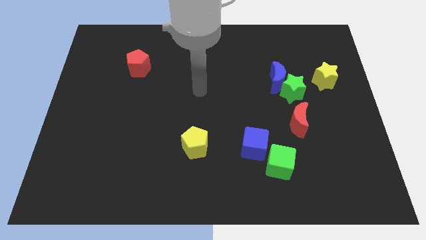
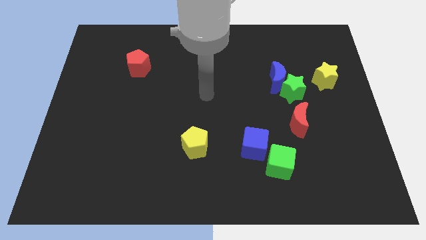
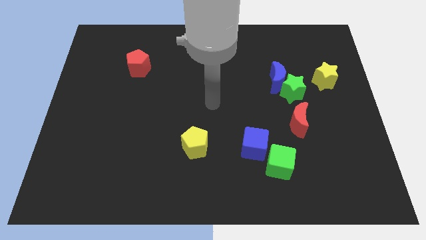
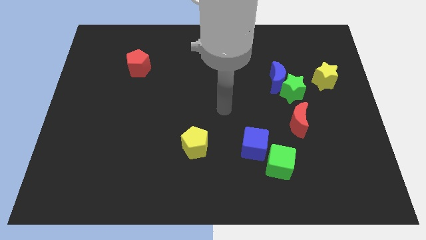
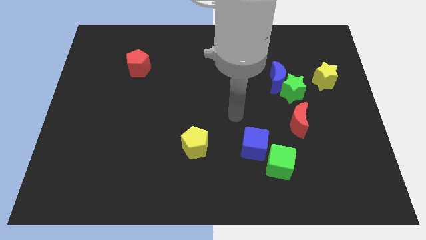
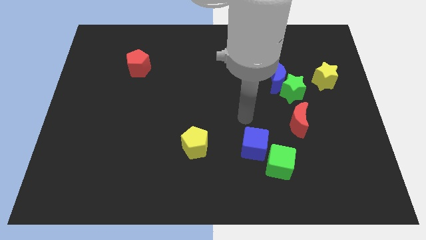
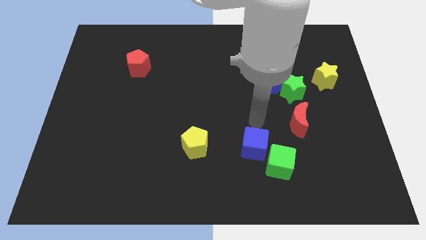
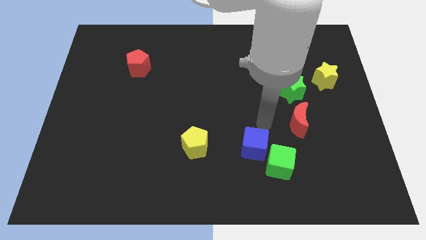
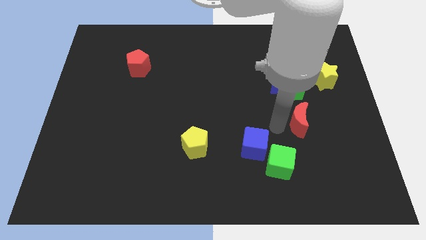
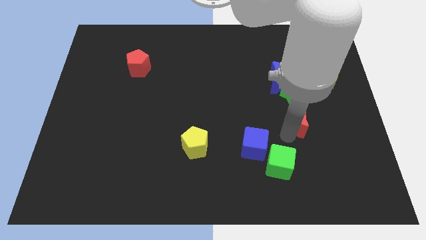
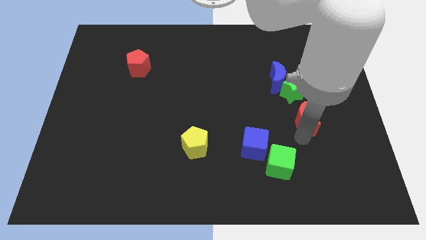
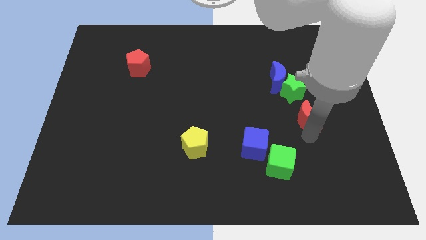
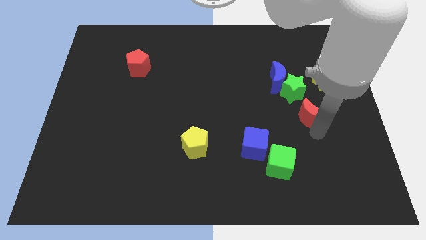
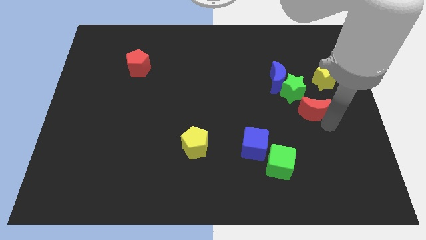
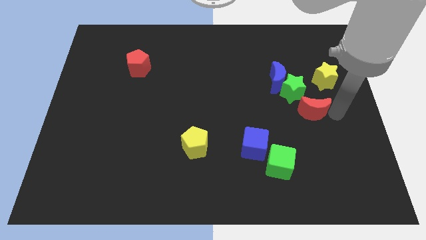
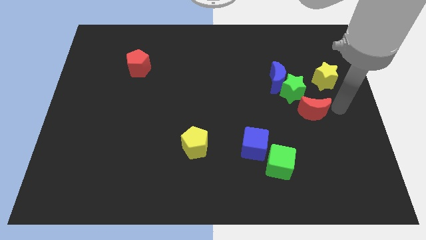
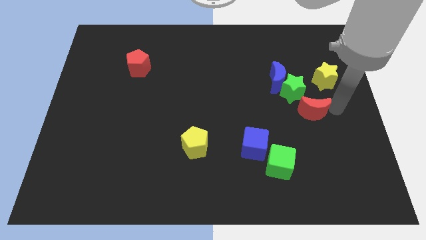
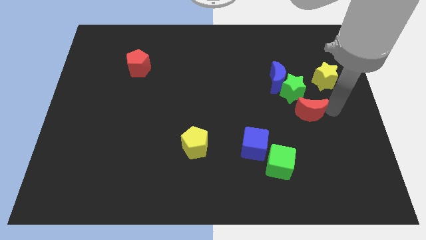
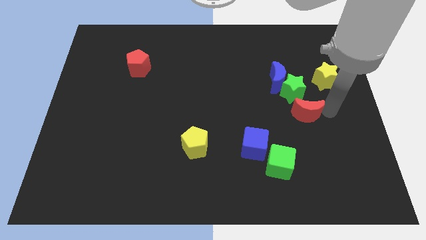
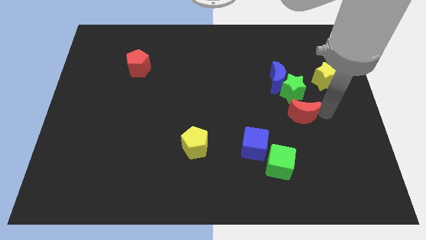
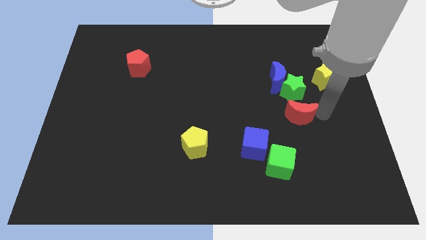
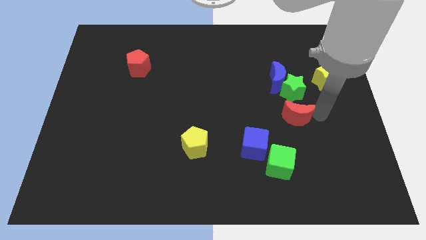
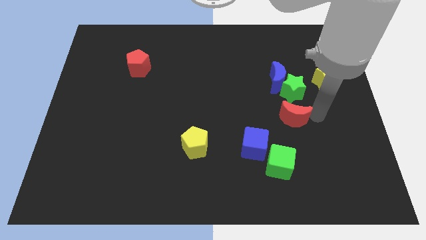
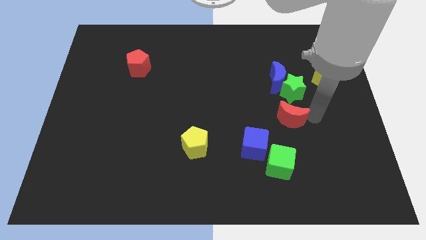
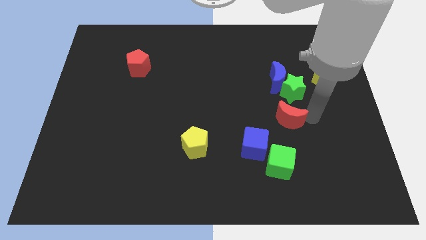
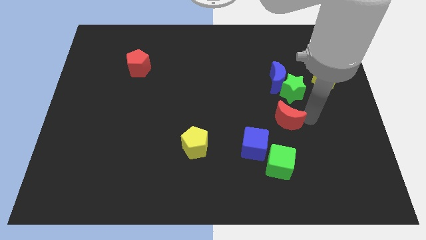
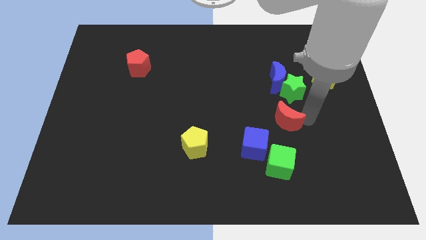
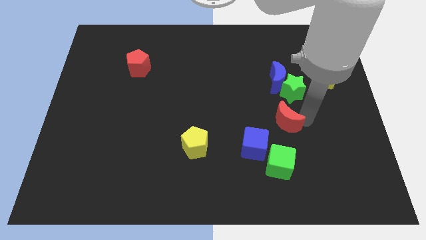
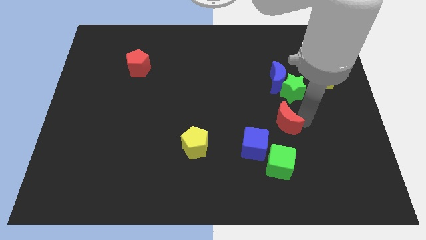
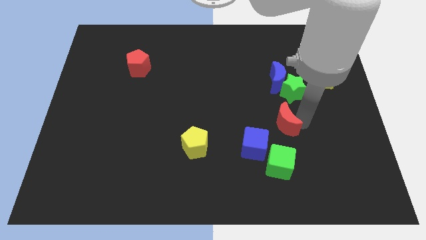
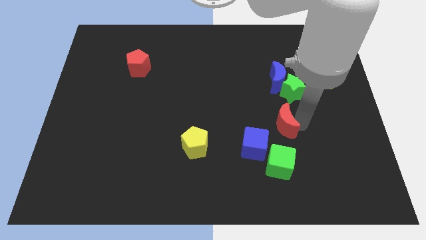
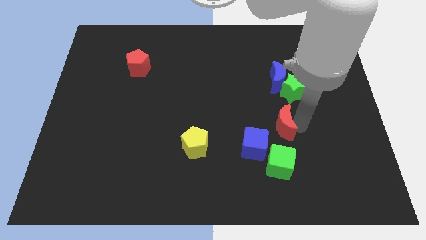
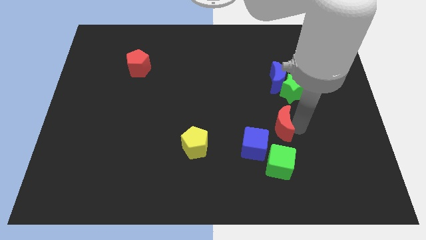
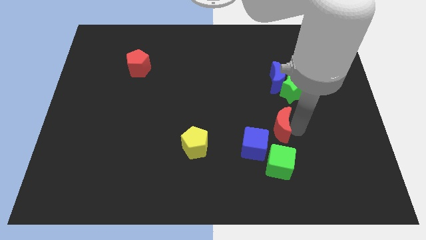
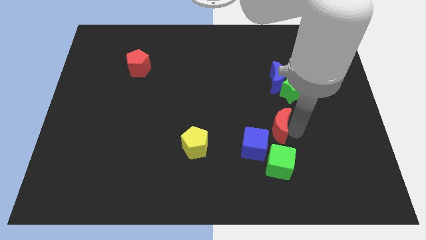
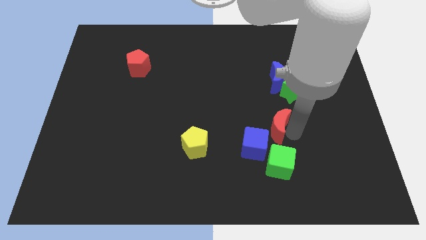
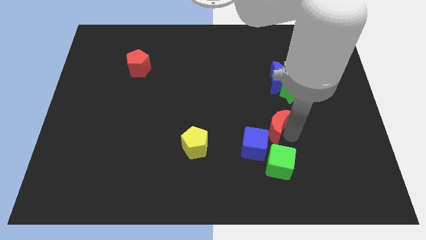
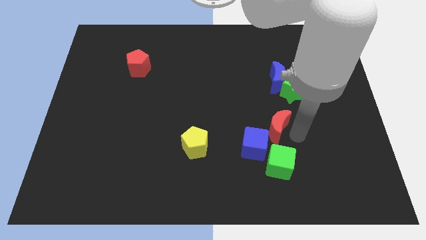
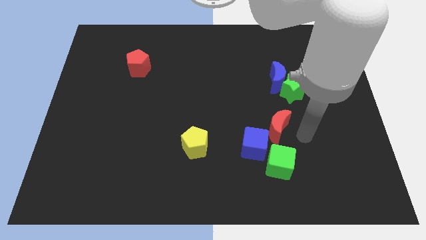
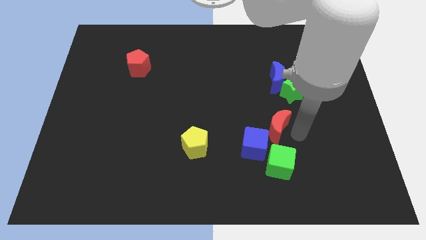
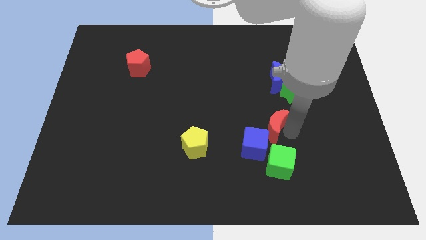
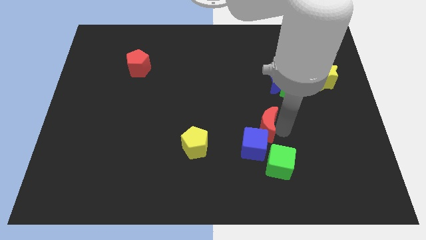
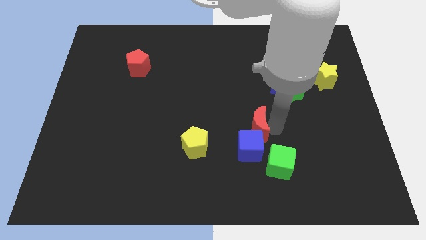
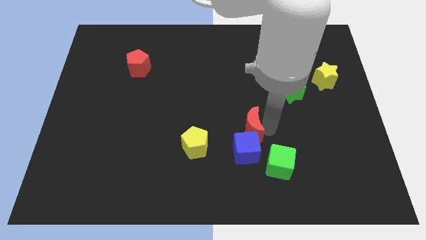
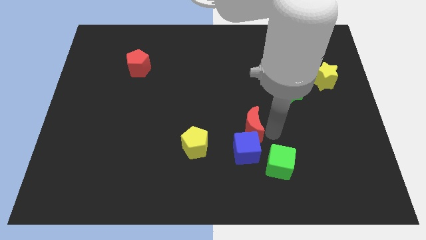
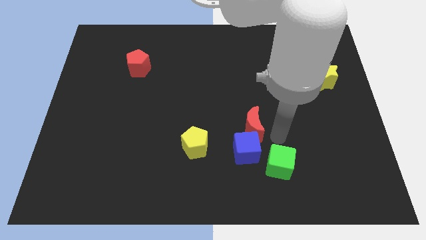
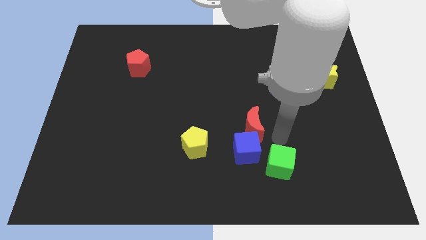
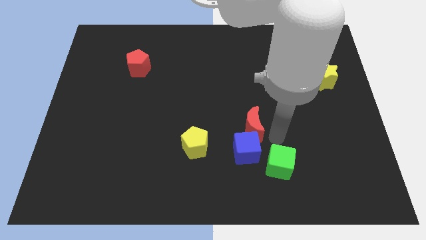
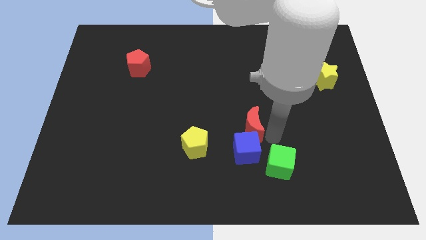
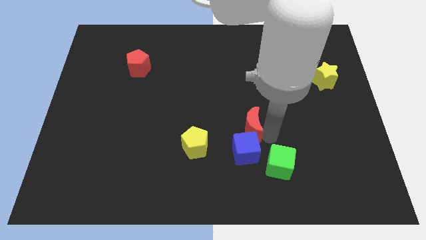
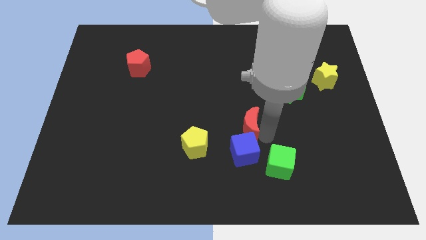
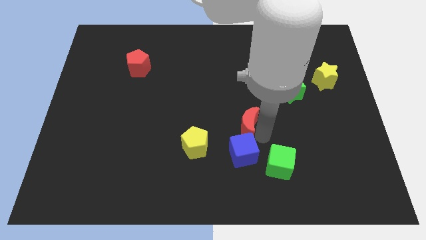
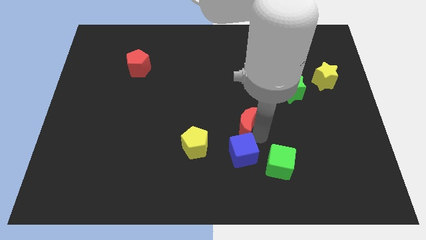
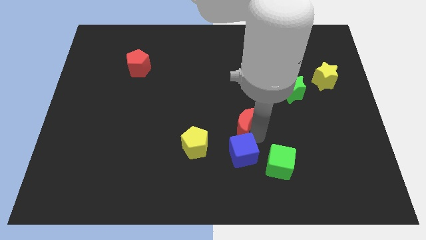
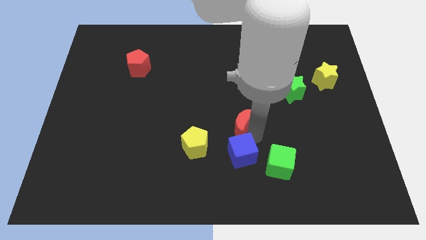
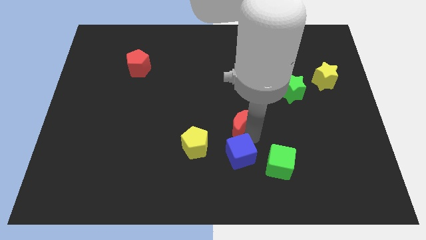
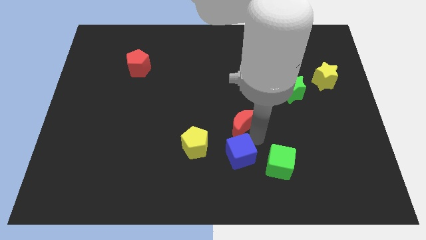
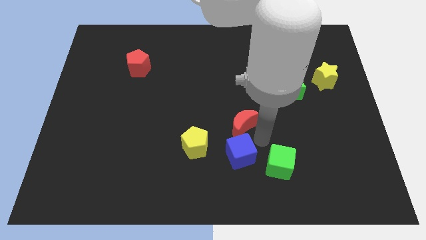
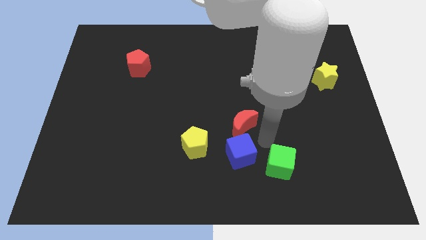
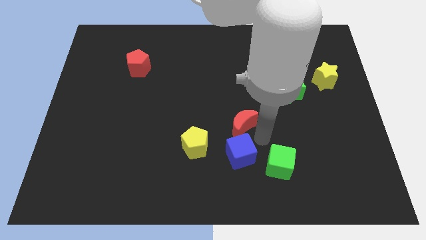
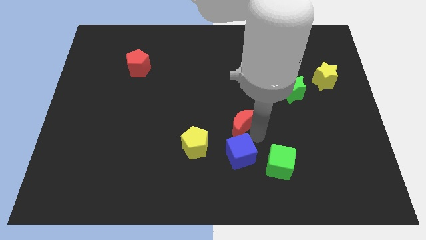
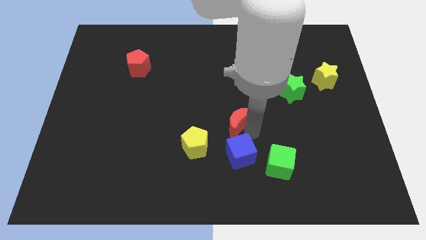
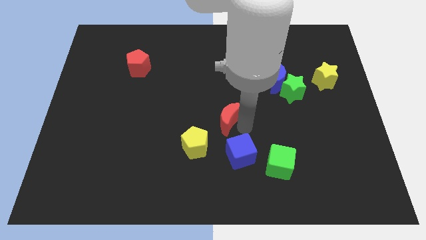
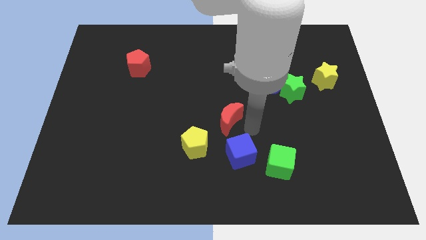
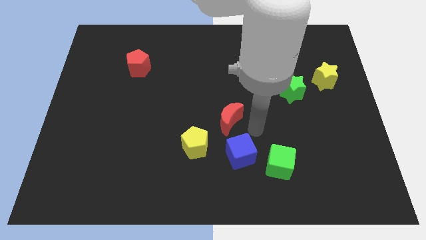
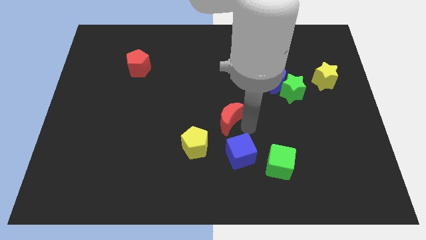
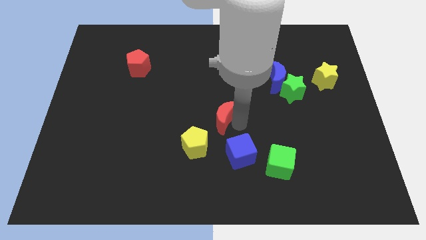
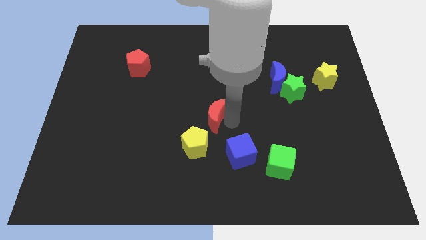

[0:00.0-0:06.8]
move the red moon above the yellow pentagon
